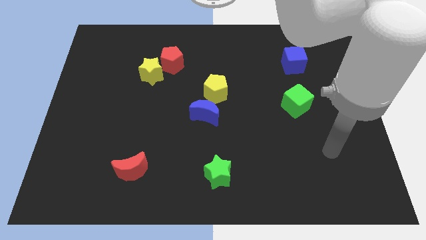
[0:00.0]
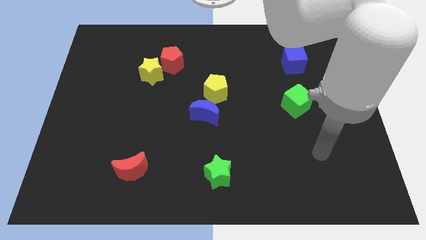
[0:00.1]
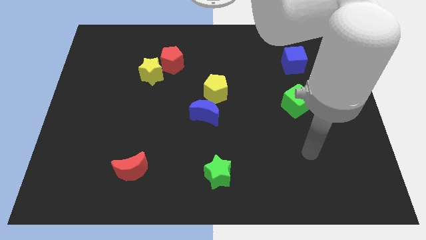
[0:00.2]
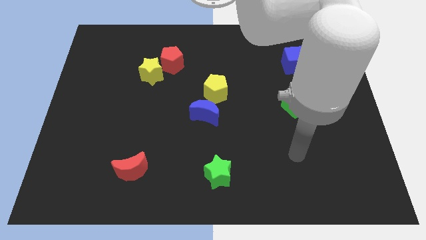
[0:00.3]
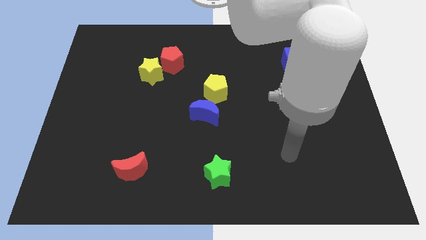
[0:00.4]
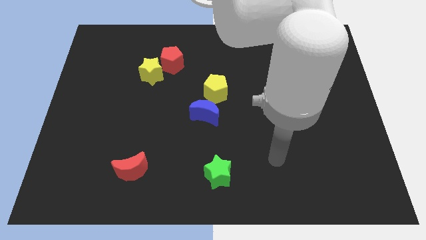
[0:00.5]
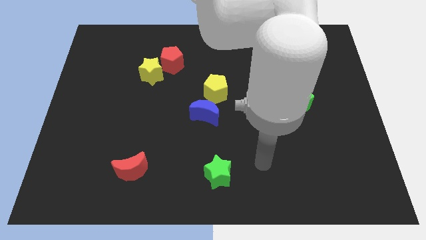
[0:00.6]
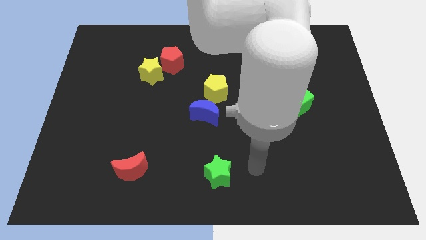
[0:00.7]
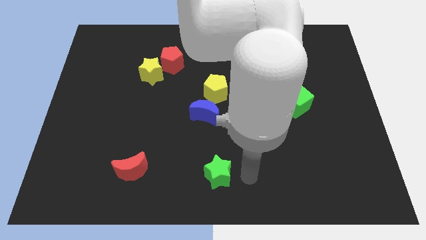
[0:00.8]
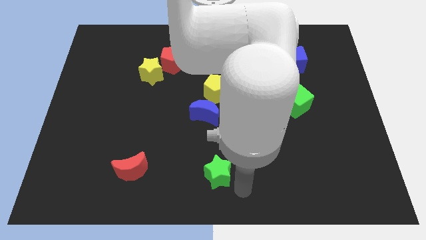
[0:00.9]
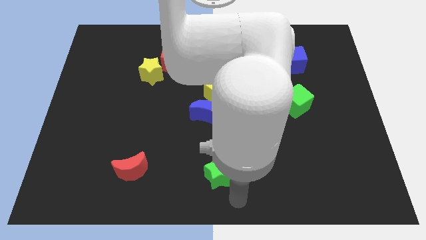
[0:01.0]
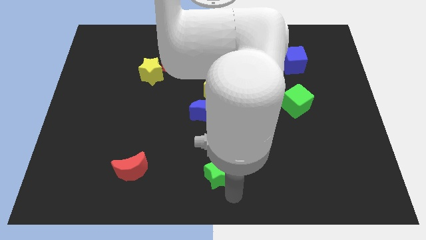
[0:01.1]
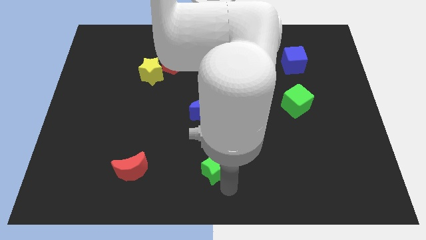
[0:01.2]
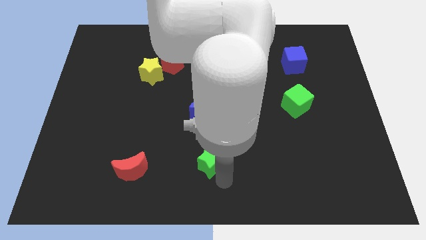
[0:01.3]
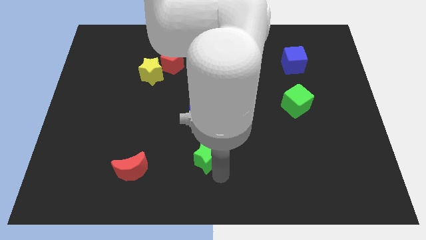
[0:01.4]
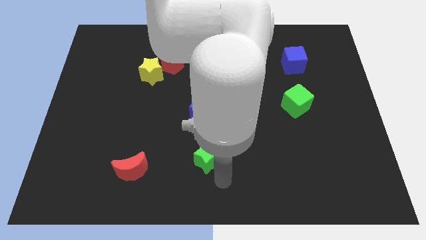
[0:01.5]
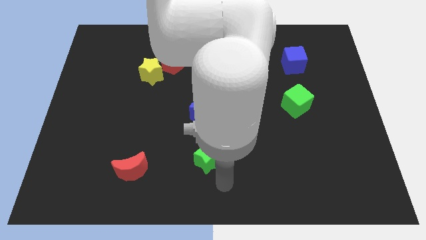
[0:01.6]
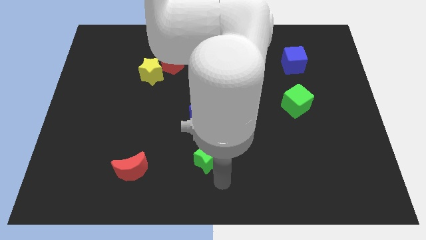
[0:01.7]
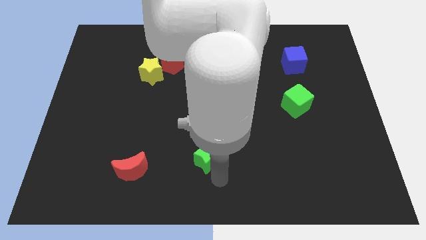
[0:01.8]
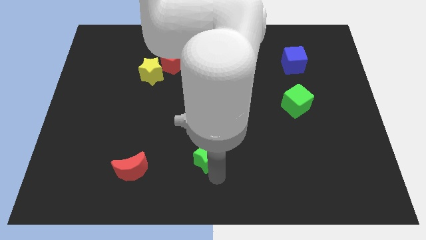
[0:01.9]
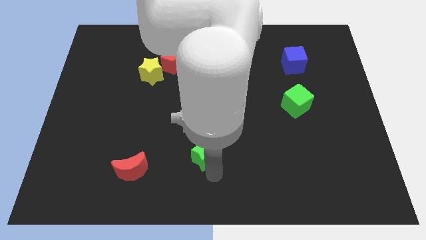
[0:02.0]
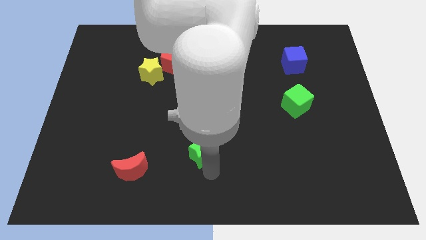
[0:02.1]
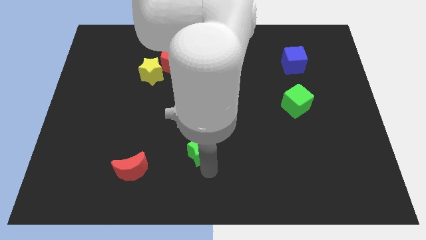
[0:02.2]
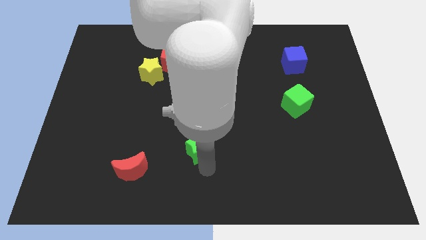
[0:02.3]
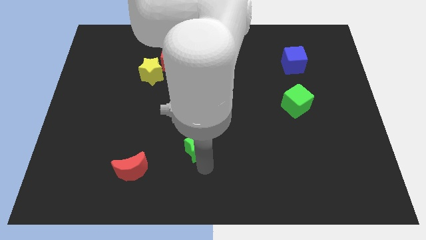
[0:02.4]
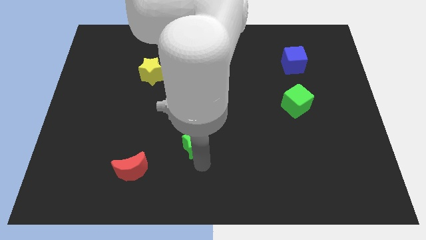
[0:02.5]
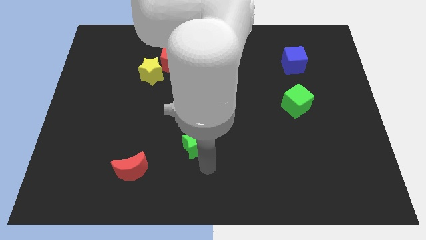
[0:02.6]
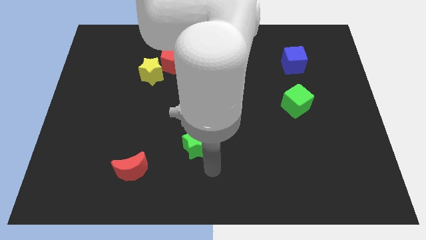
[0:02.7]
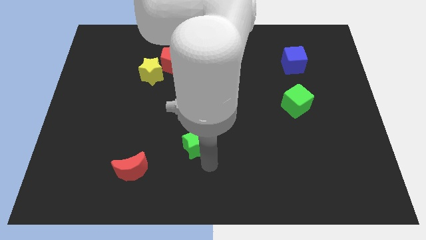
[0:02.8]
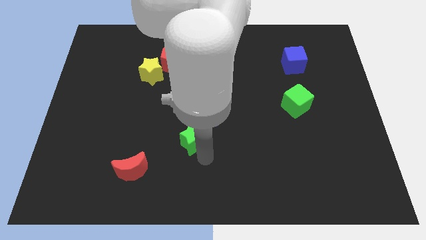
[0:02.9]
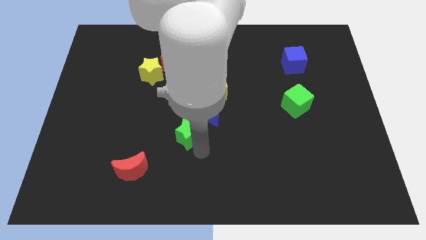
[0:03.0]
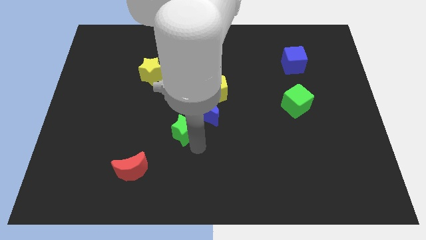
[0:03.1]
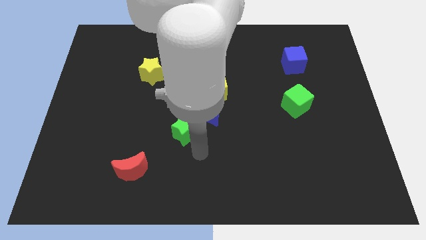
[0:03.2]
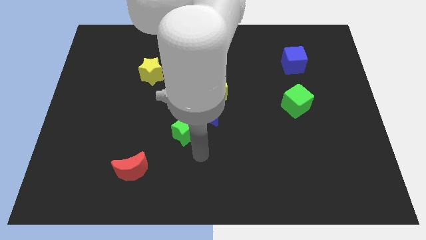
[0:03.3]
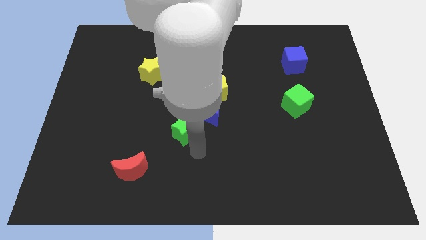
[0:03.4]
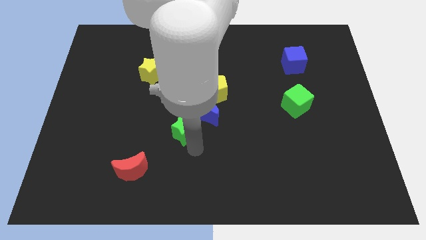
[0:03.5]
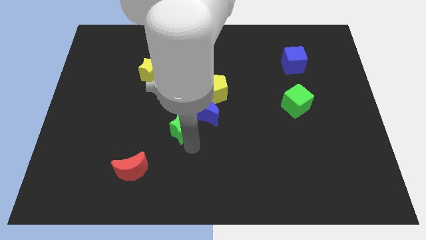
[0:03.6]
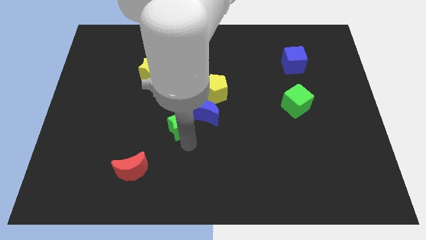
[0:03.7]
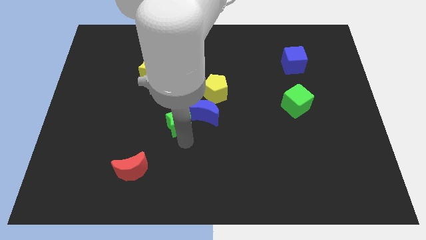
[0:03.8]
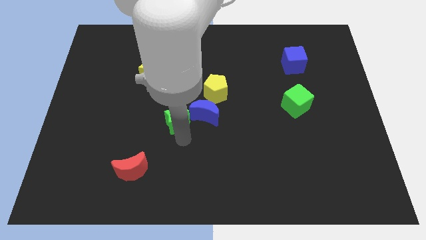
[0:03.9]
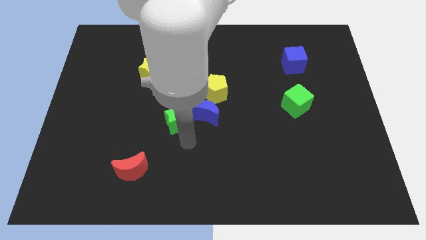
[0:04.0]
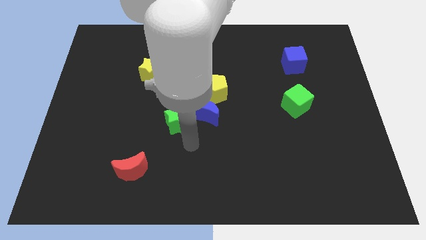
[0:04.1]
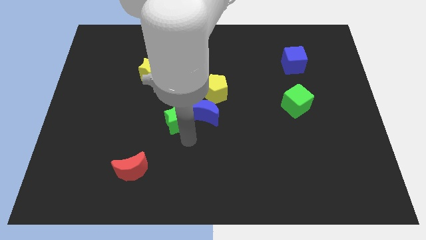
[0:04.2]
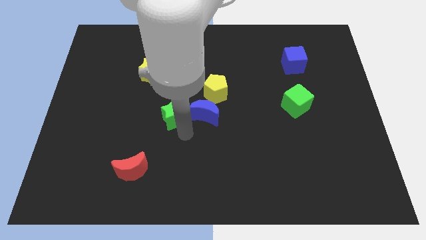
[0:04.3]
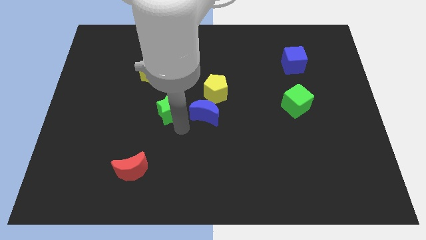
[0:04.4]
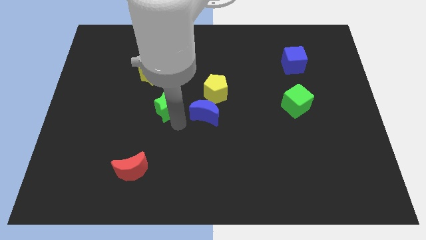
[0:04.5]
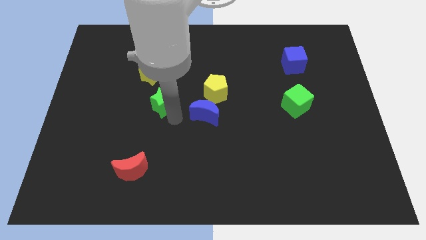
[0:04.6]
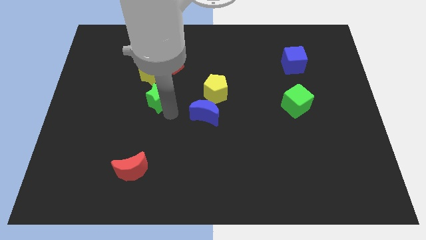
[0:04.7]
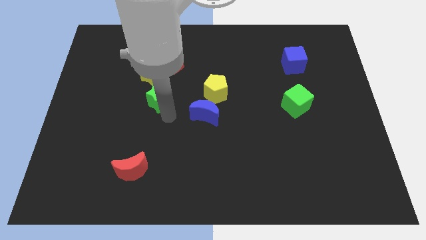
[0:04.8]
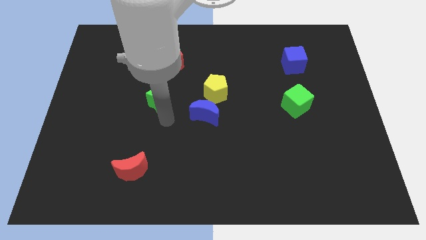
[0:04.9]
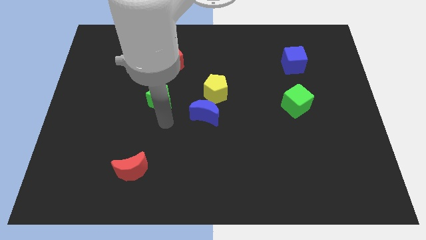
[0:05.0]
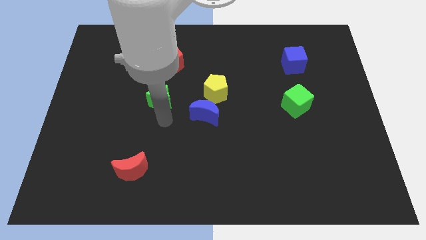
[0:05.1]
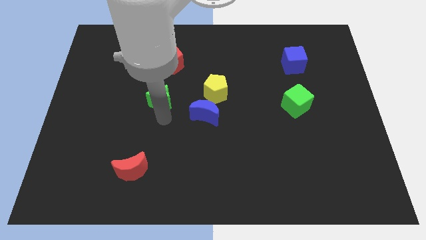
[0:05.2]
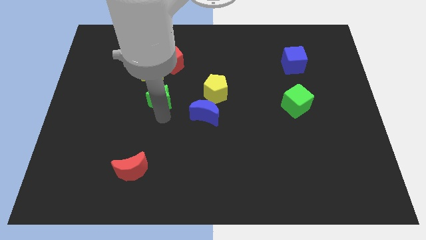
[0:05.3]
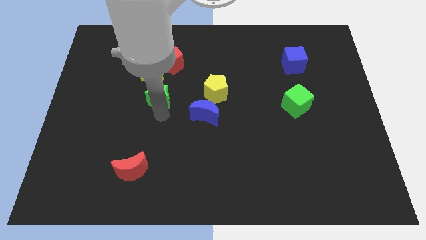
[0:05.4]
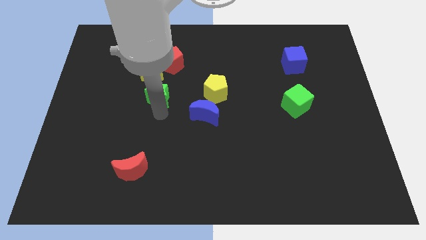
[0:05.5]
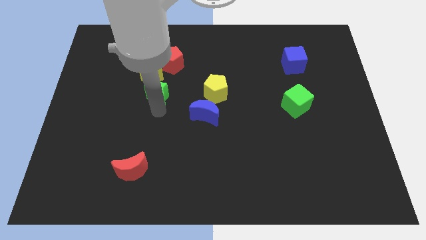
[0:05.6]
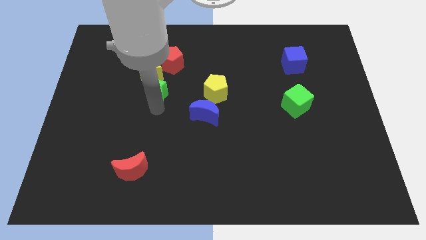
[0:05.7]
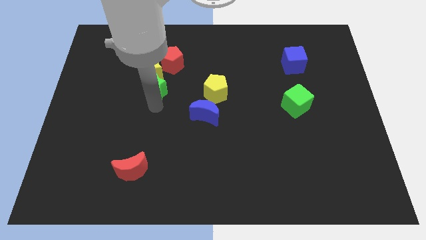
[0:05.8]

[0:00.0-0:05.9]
put the green star towards the yellow star

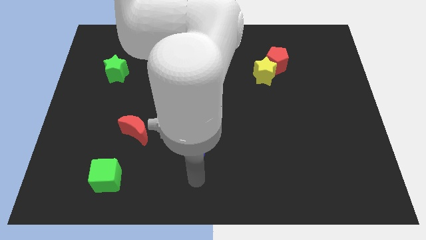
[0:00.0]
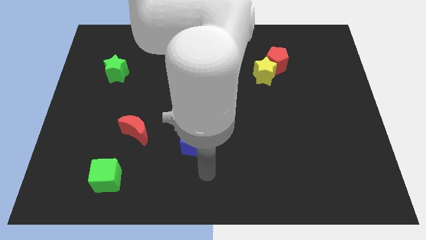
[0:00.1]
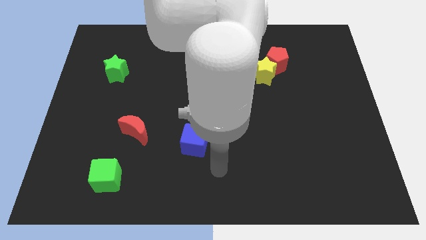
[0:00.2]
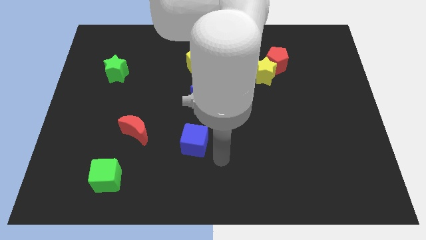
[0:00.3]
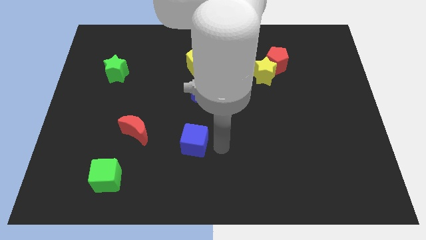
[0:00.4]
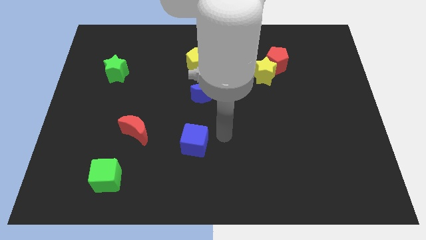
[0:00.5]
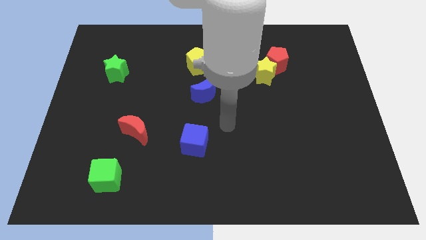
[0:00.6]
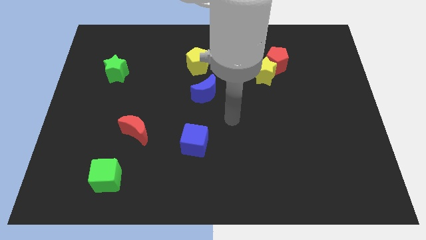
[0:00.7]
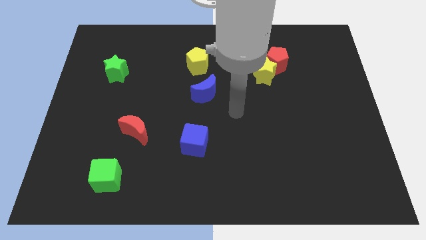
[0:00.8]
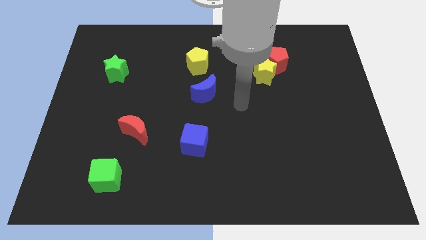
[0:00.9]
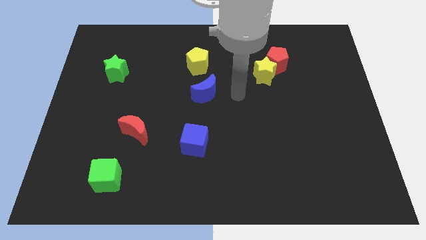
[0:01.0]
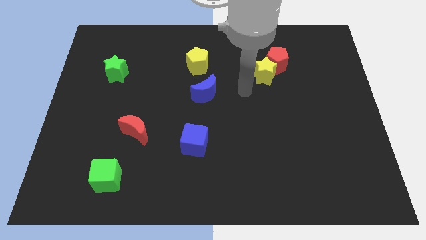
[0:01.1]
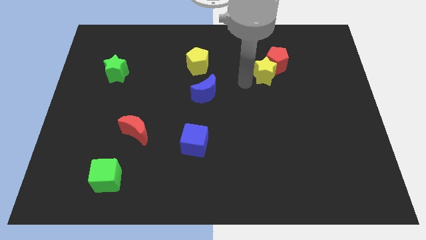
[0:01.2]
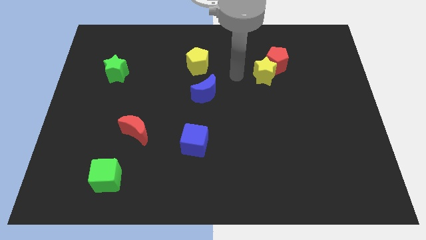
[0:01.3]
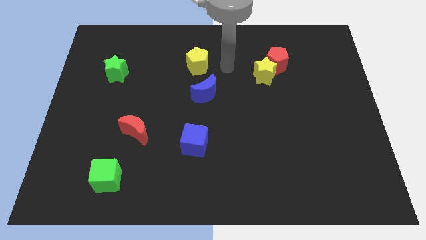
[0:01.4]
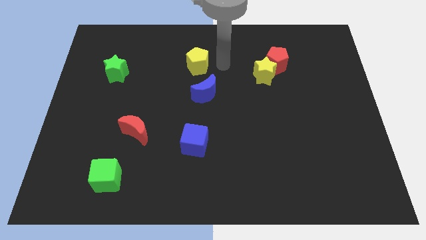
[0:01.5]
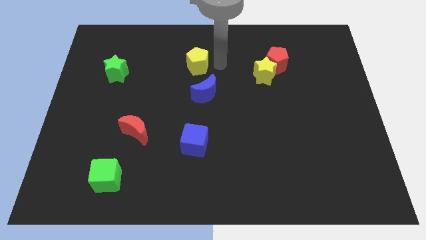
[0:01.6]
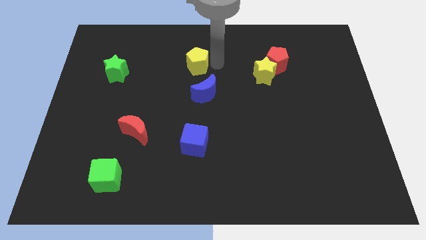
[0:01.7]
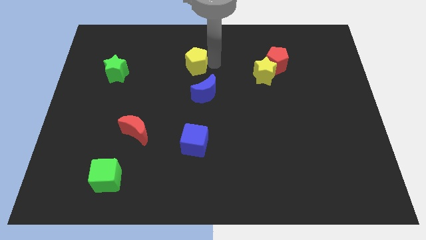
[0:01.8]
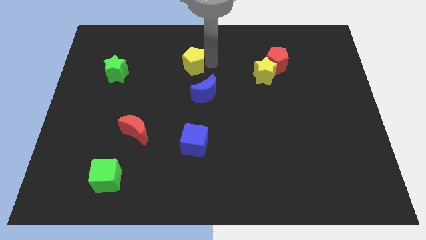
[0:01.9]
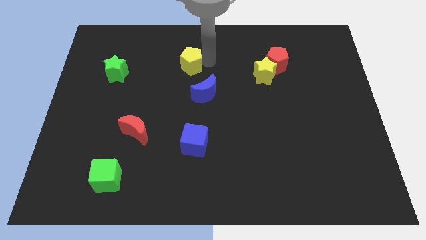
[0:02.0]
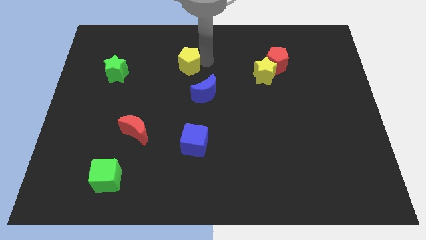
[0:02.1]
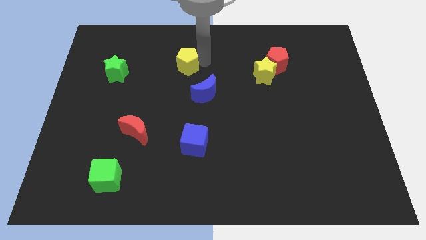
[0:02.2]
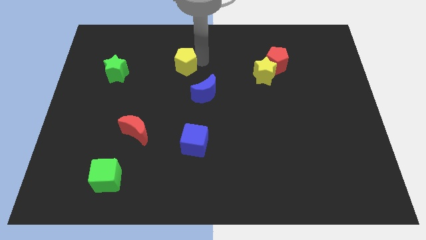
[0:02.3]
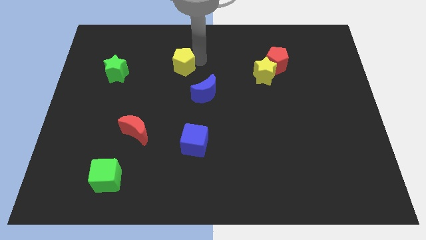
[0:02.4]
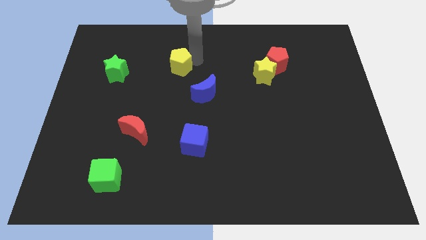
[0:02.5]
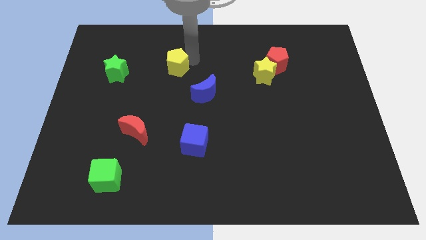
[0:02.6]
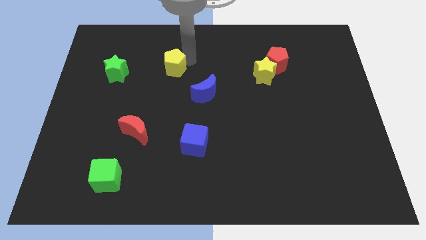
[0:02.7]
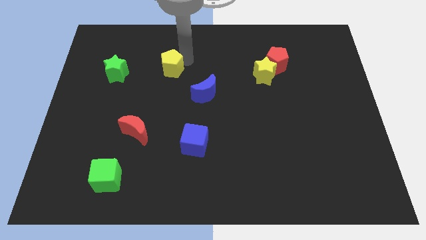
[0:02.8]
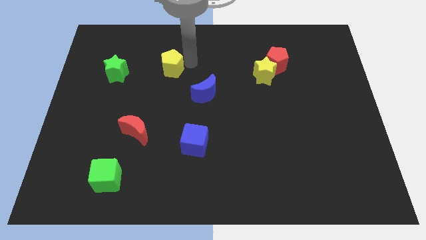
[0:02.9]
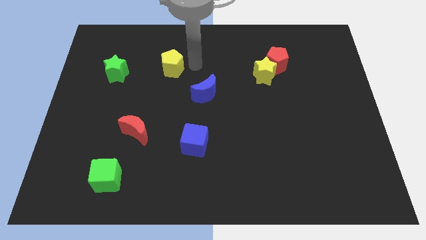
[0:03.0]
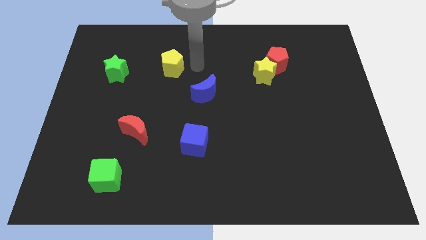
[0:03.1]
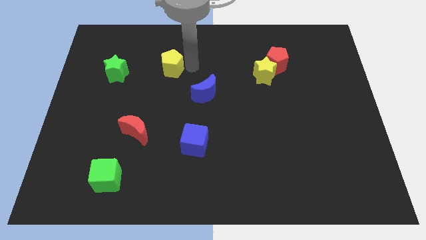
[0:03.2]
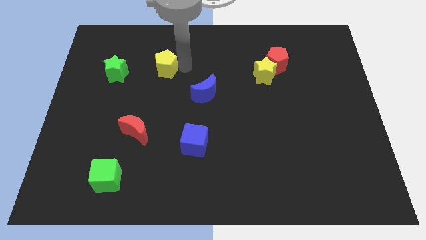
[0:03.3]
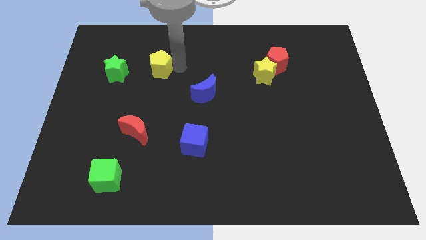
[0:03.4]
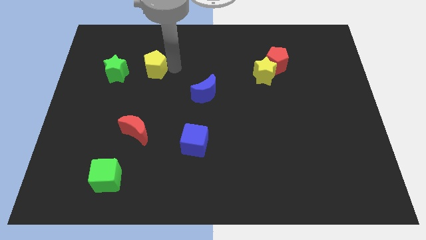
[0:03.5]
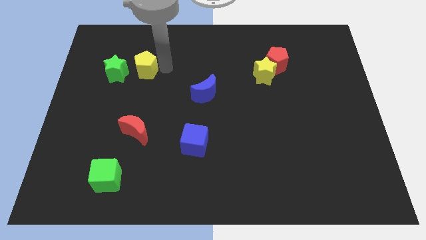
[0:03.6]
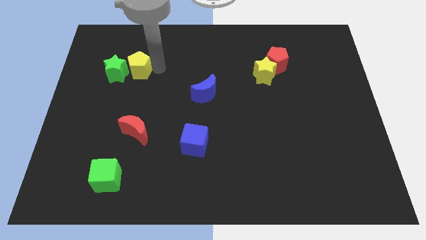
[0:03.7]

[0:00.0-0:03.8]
push the yellow pentagon towards the green star
